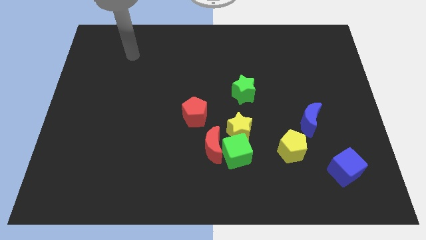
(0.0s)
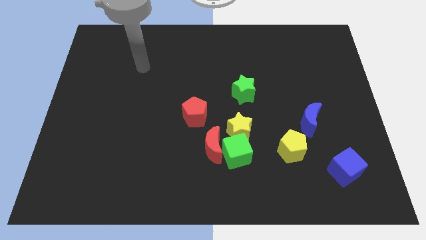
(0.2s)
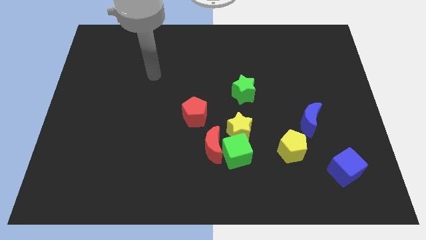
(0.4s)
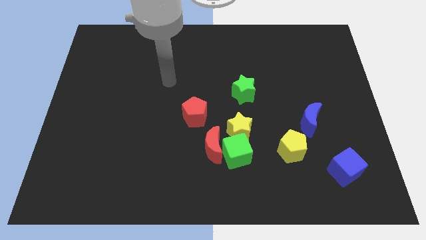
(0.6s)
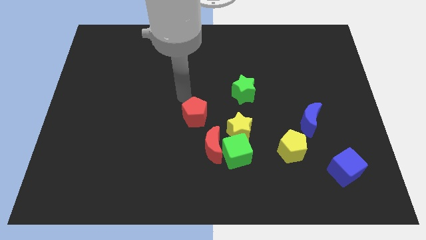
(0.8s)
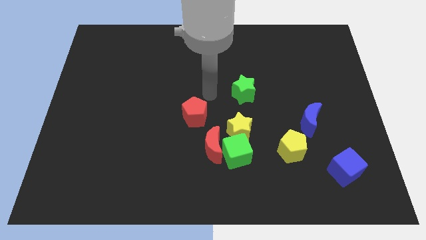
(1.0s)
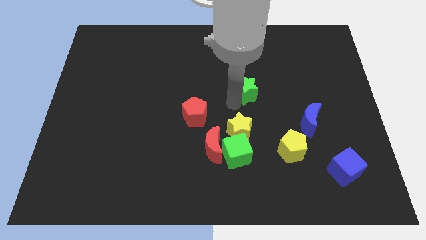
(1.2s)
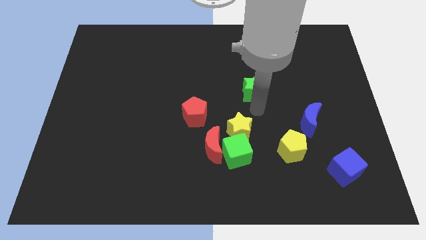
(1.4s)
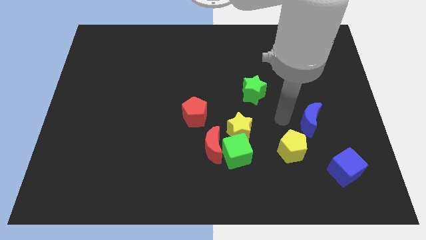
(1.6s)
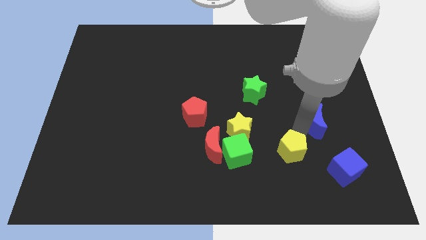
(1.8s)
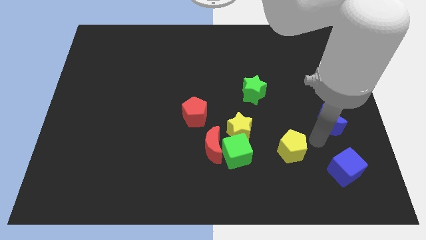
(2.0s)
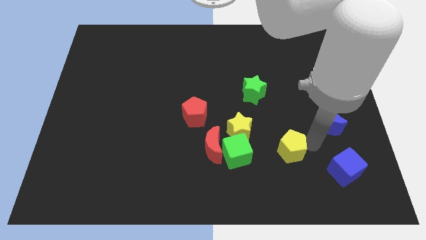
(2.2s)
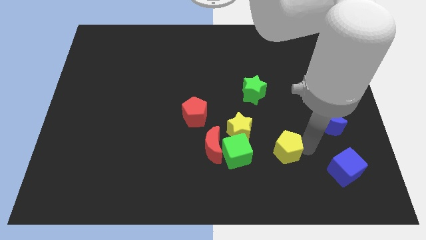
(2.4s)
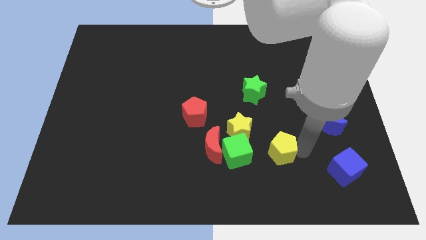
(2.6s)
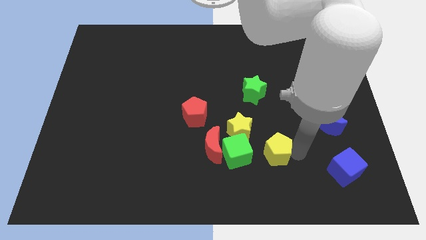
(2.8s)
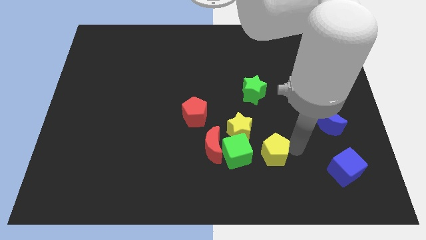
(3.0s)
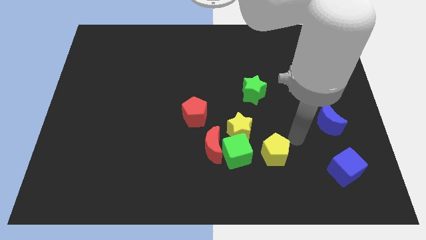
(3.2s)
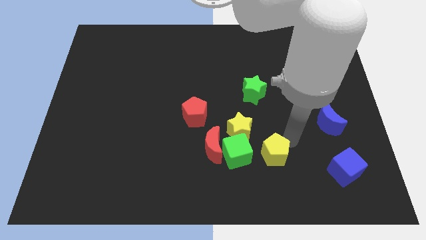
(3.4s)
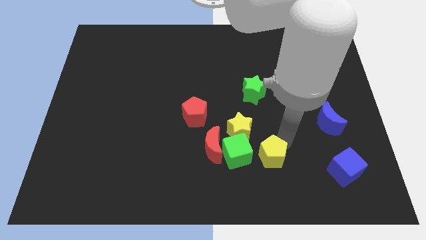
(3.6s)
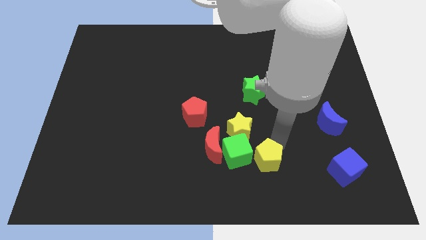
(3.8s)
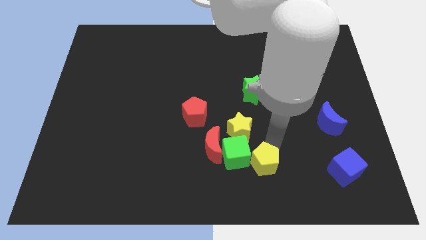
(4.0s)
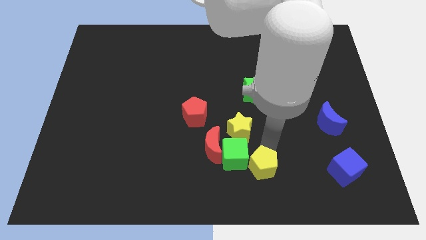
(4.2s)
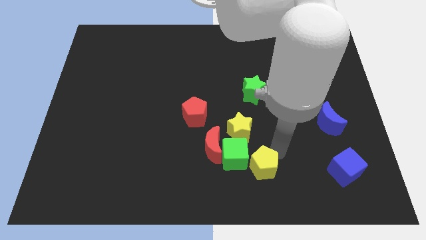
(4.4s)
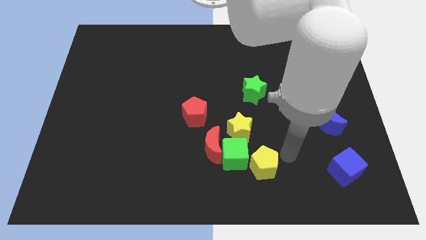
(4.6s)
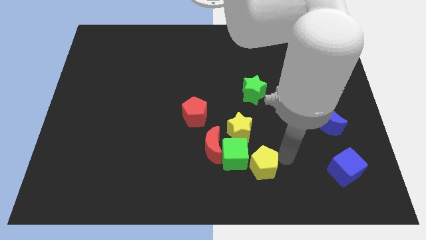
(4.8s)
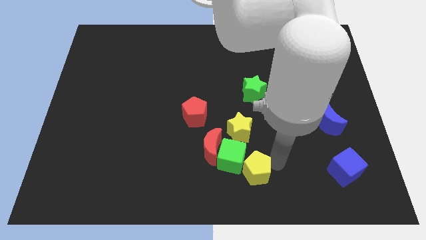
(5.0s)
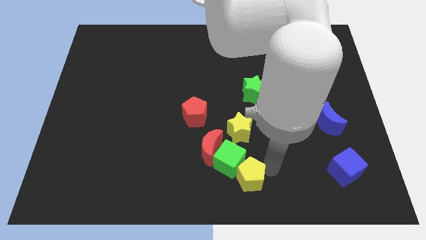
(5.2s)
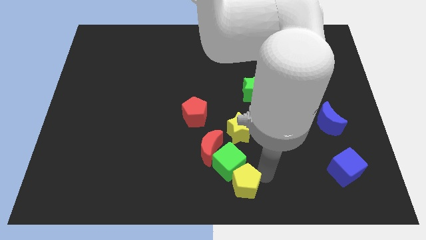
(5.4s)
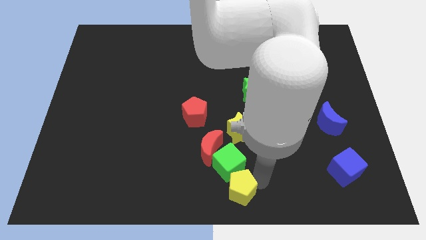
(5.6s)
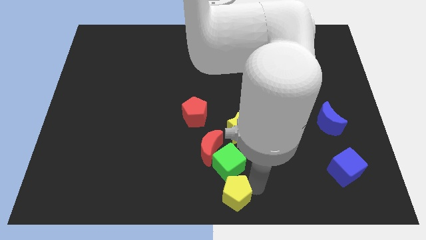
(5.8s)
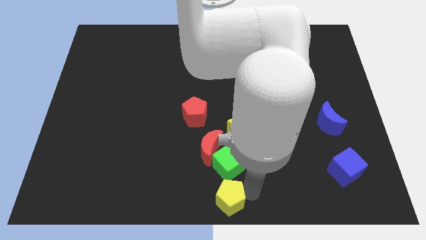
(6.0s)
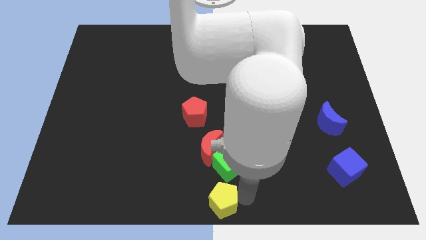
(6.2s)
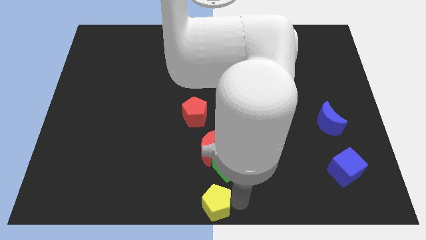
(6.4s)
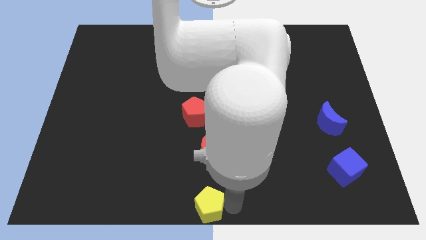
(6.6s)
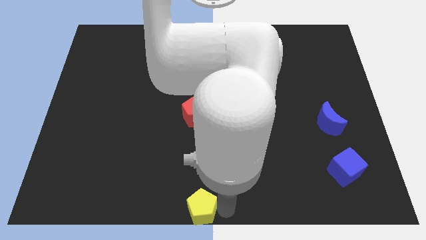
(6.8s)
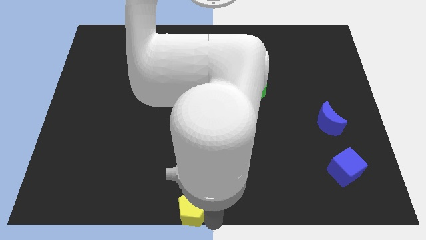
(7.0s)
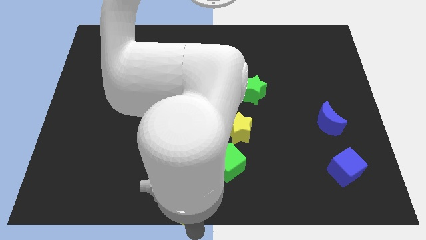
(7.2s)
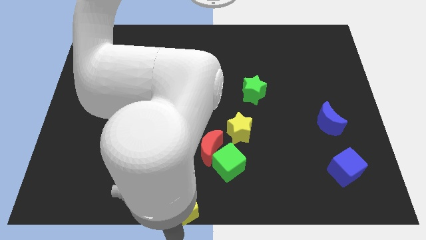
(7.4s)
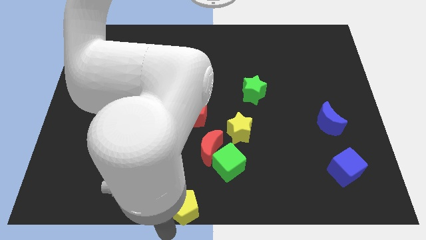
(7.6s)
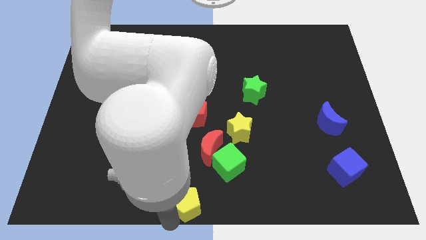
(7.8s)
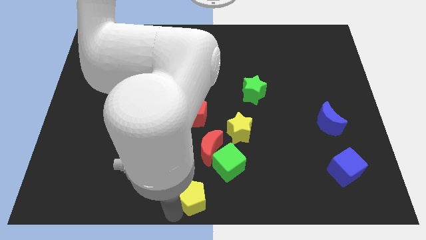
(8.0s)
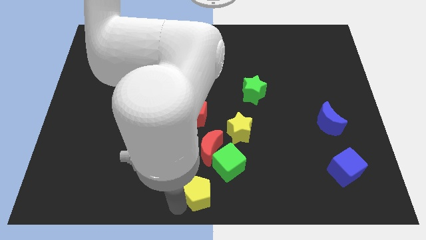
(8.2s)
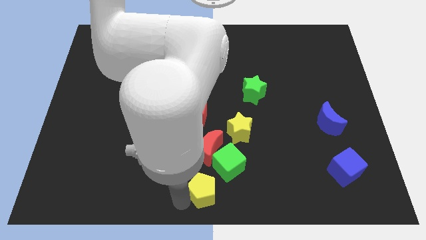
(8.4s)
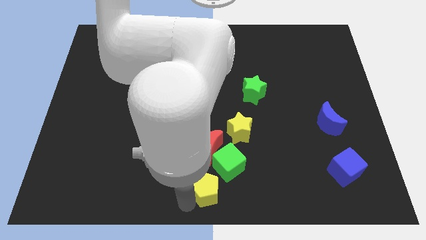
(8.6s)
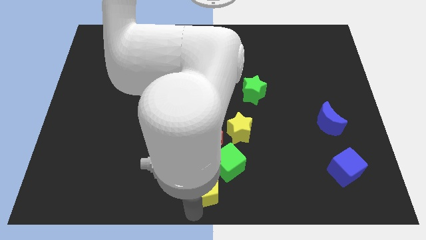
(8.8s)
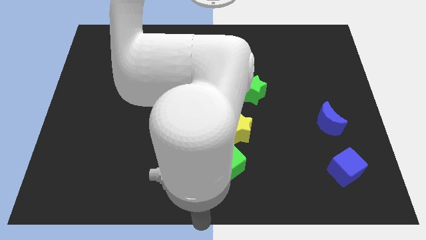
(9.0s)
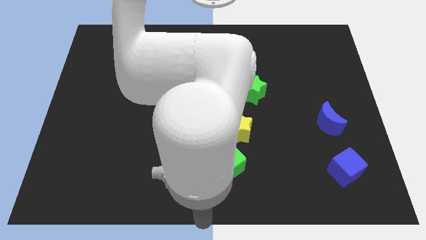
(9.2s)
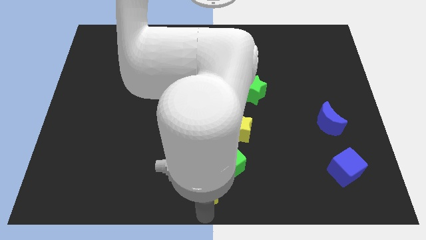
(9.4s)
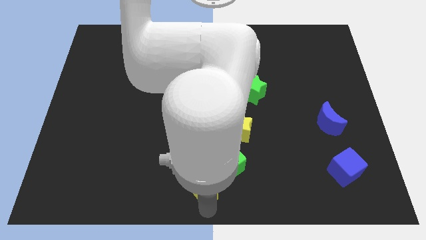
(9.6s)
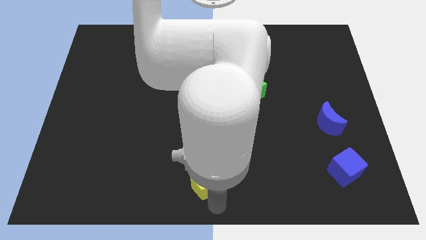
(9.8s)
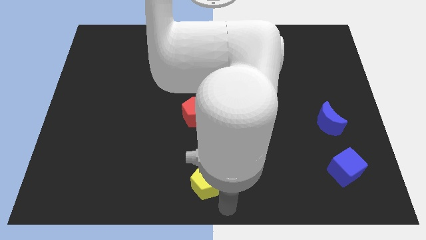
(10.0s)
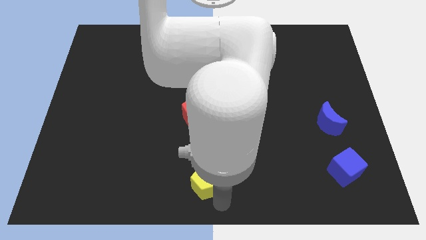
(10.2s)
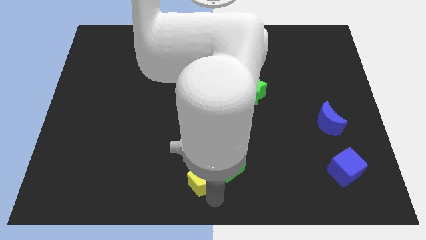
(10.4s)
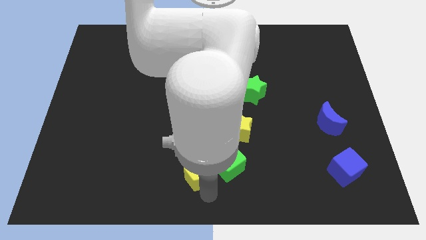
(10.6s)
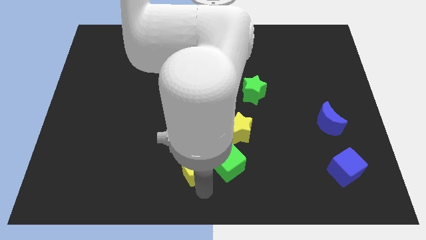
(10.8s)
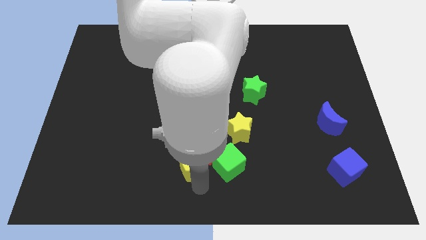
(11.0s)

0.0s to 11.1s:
move the yellow pentagon left

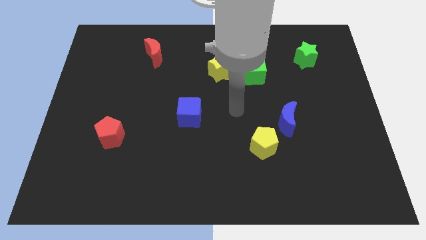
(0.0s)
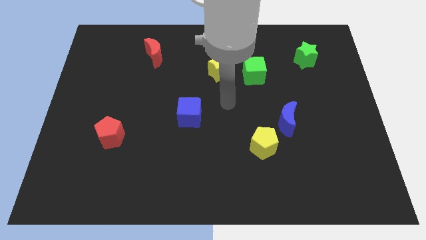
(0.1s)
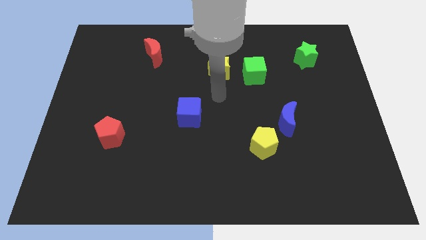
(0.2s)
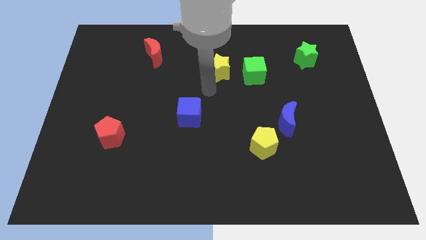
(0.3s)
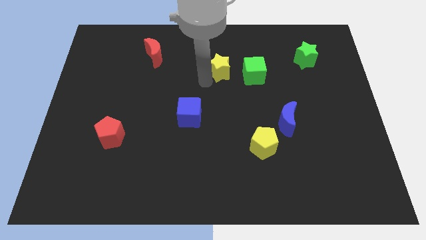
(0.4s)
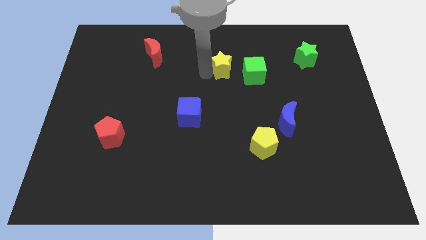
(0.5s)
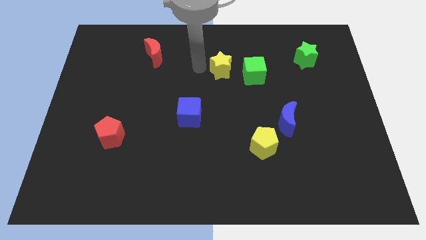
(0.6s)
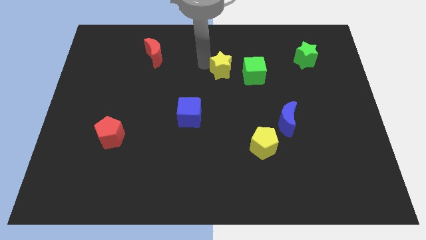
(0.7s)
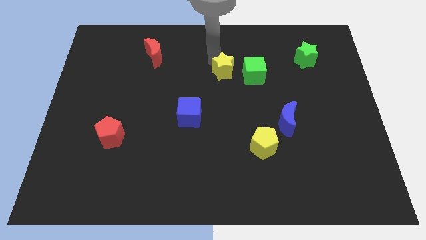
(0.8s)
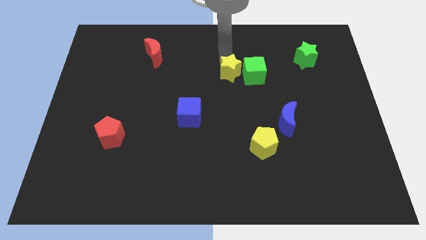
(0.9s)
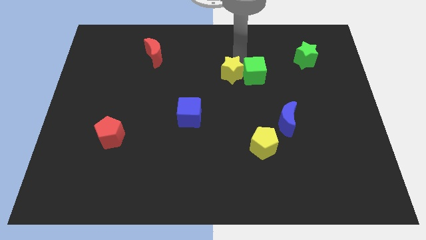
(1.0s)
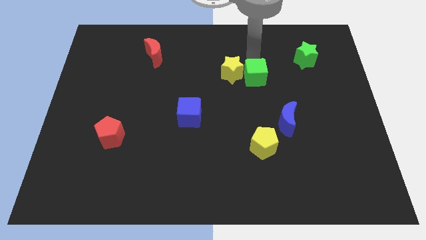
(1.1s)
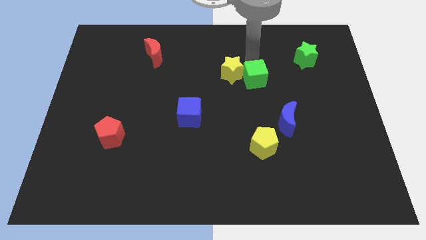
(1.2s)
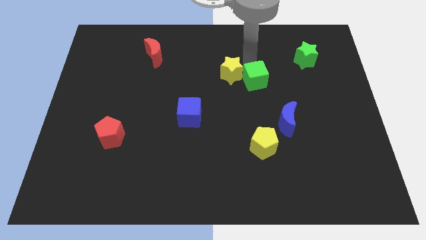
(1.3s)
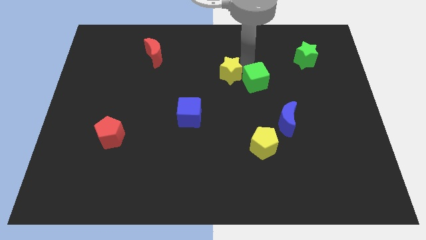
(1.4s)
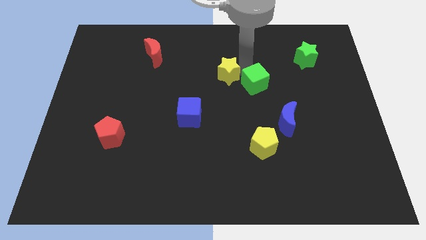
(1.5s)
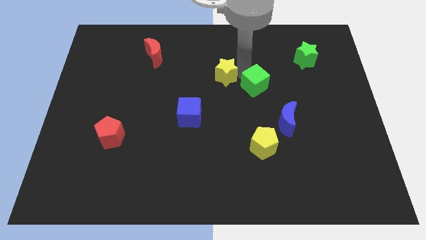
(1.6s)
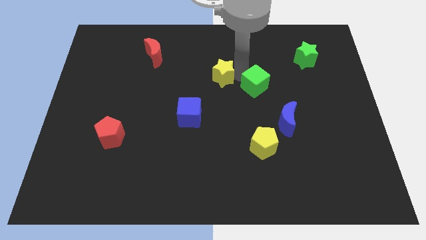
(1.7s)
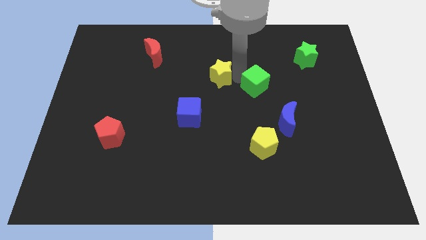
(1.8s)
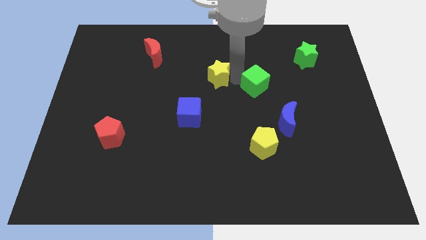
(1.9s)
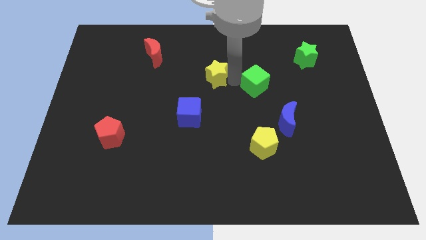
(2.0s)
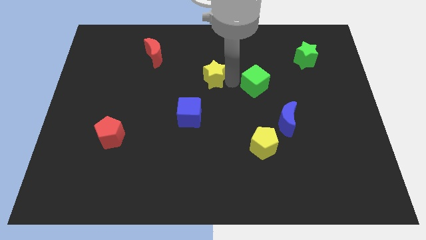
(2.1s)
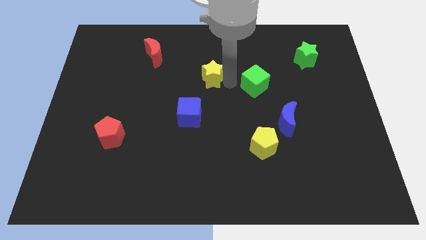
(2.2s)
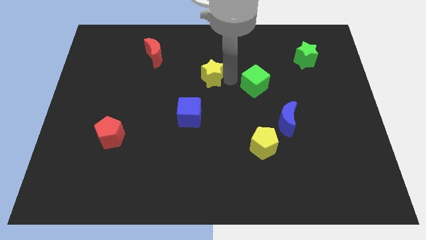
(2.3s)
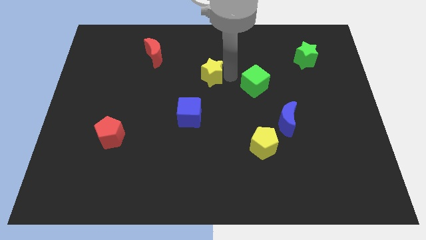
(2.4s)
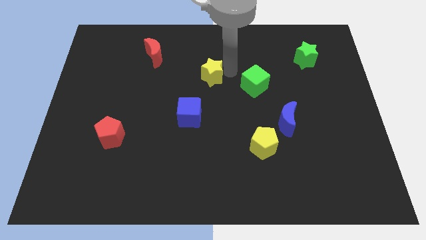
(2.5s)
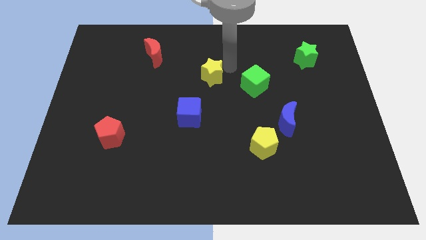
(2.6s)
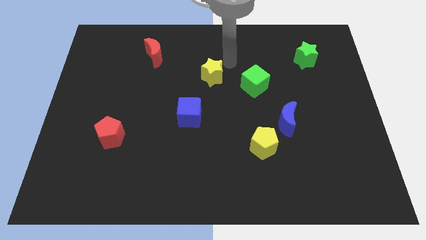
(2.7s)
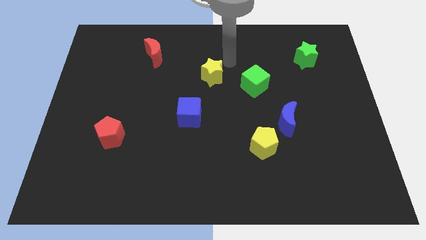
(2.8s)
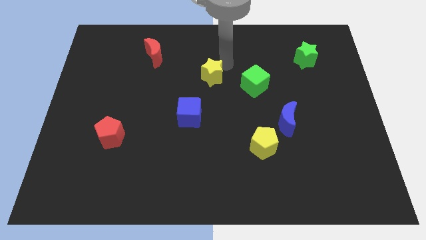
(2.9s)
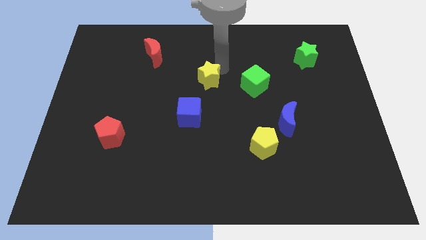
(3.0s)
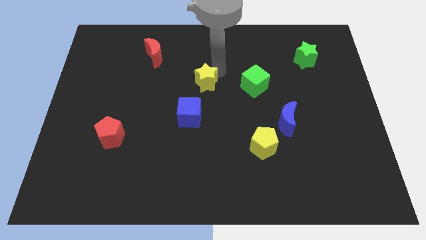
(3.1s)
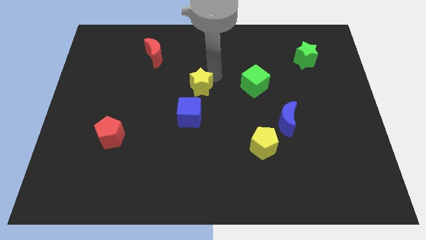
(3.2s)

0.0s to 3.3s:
move the yellow star downwards and left diagonally somewhat
